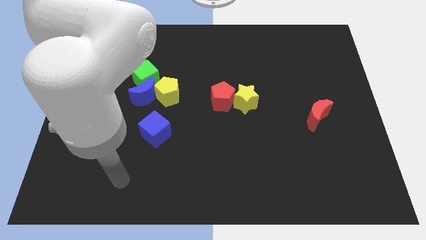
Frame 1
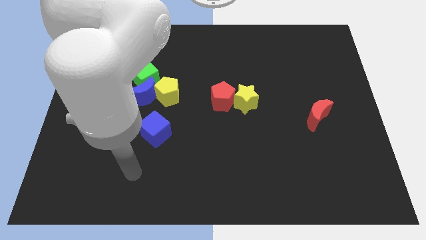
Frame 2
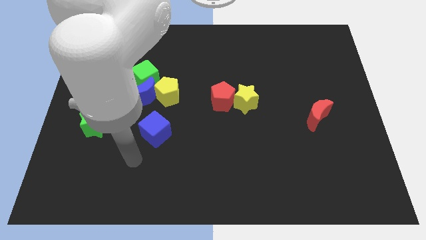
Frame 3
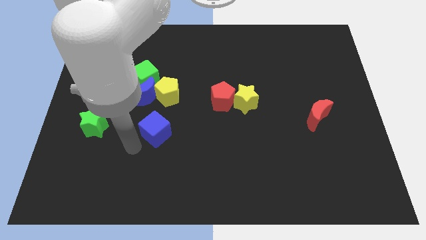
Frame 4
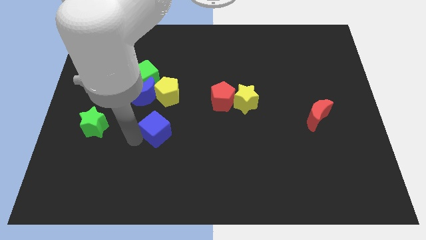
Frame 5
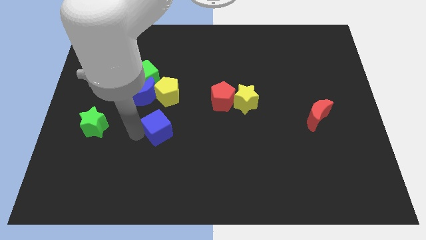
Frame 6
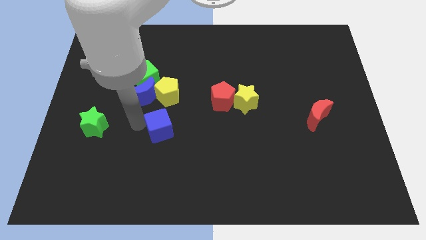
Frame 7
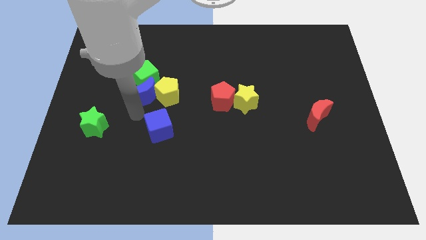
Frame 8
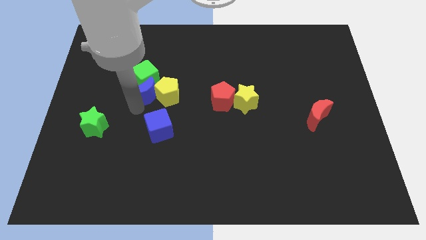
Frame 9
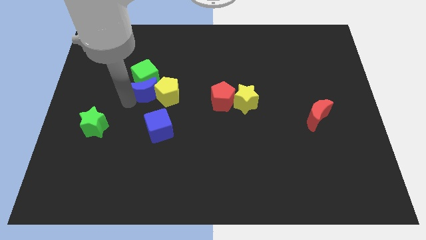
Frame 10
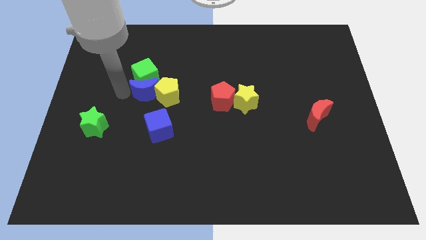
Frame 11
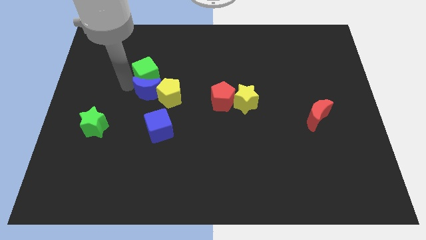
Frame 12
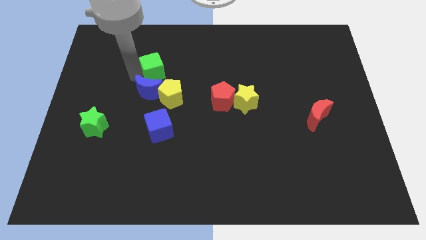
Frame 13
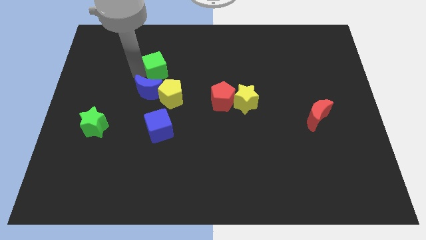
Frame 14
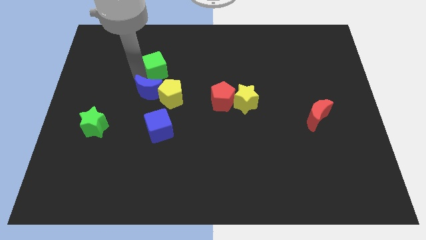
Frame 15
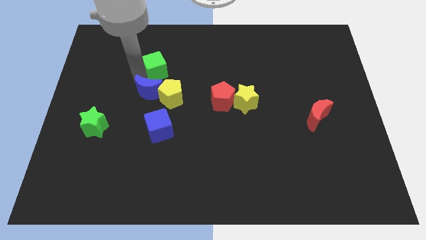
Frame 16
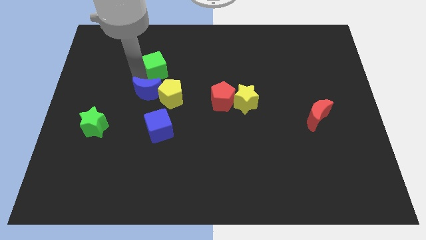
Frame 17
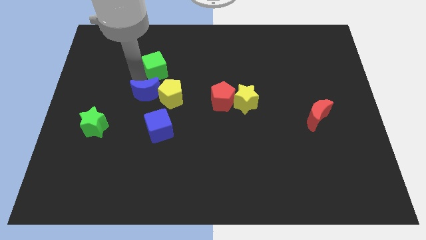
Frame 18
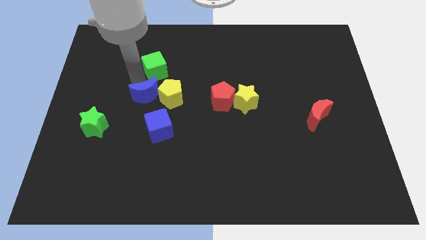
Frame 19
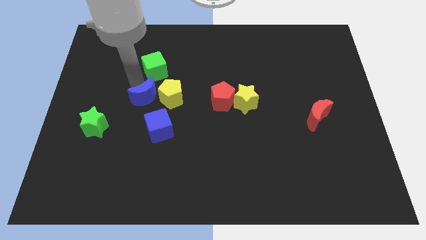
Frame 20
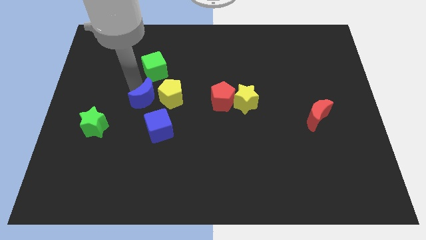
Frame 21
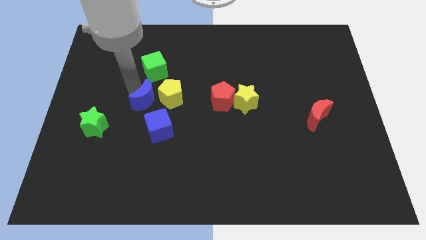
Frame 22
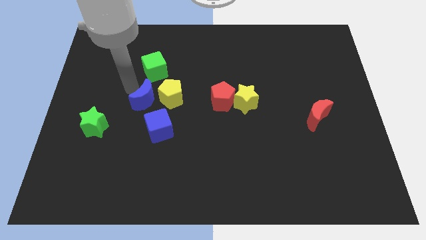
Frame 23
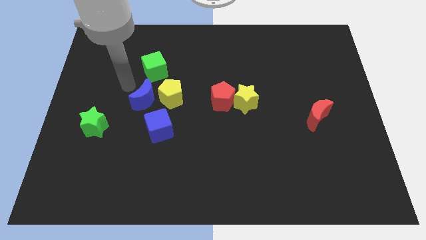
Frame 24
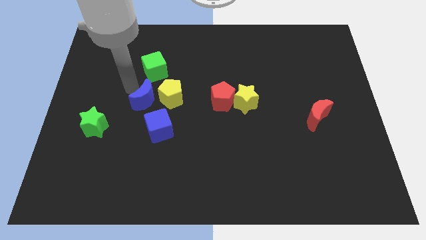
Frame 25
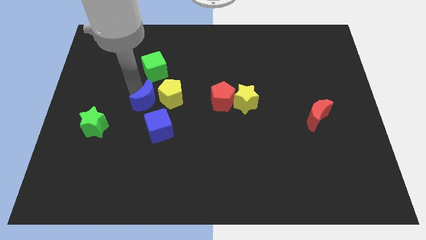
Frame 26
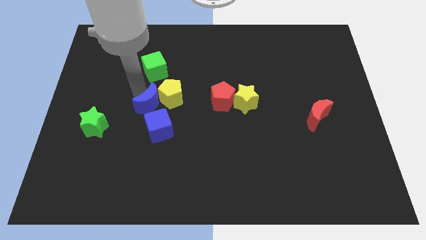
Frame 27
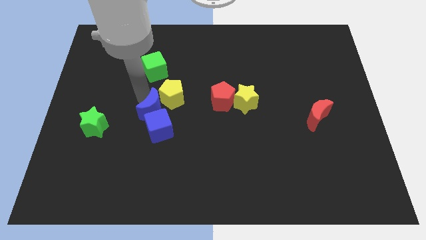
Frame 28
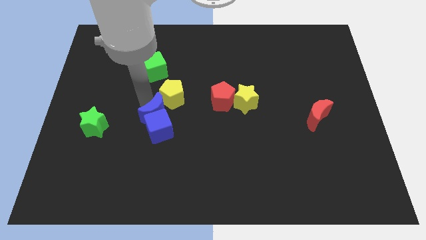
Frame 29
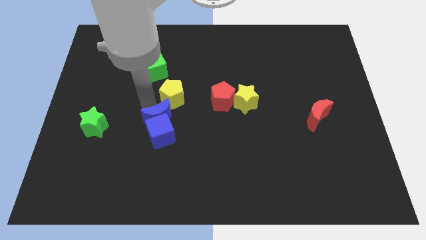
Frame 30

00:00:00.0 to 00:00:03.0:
slightly push the blue moon downwards and right diagonally

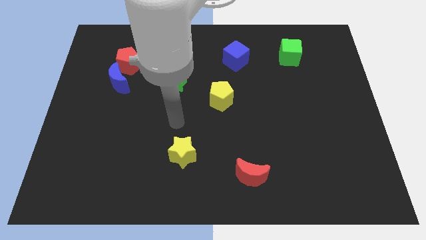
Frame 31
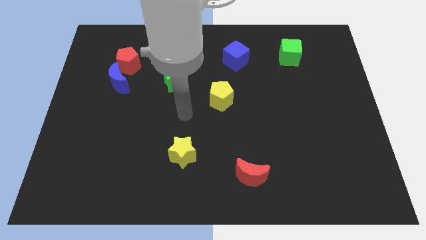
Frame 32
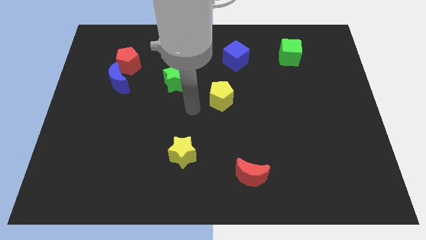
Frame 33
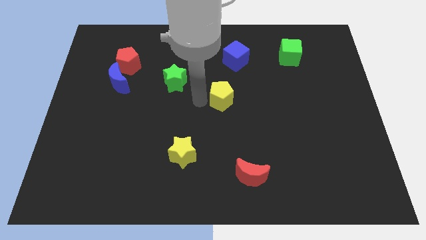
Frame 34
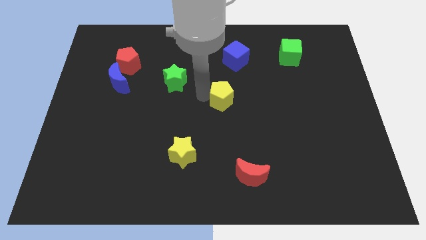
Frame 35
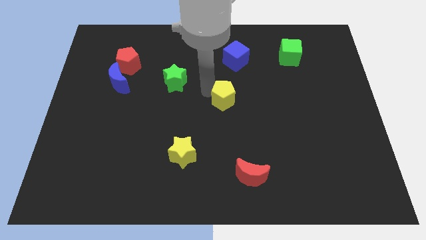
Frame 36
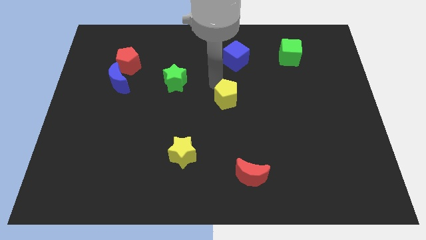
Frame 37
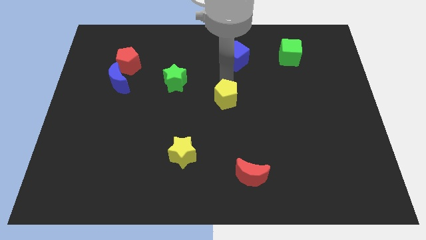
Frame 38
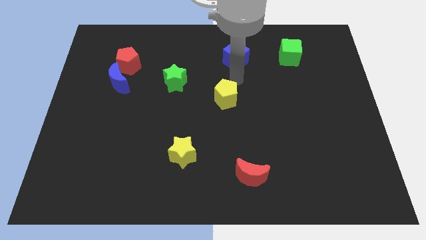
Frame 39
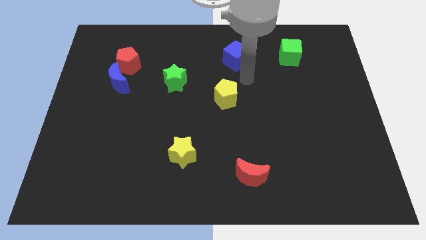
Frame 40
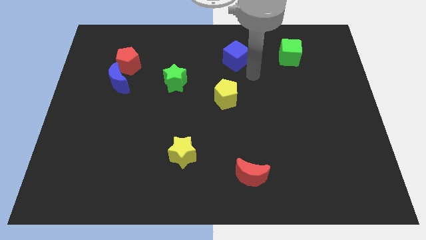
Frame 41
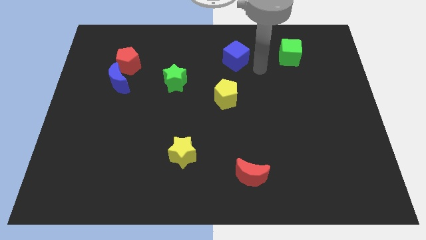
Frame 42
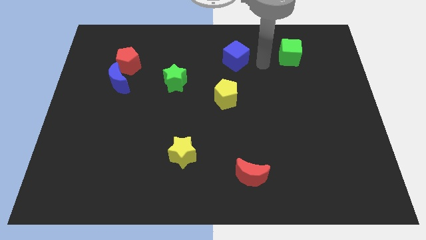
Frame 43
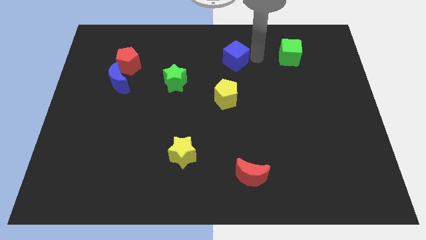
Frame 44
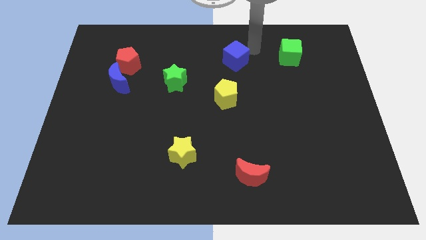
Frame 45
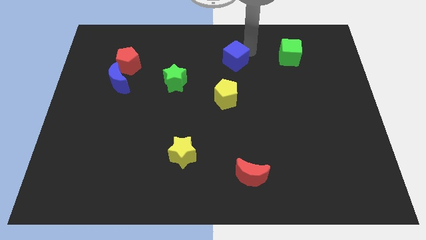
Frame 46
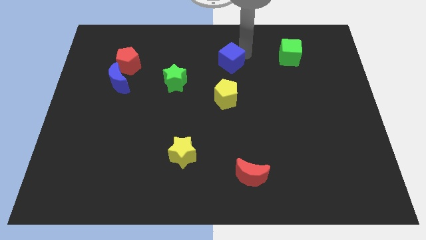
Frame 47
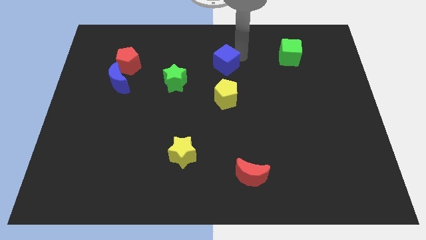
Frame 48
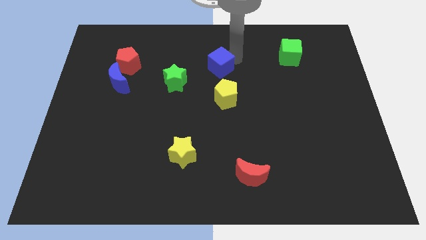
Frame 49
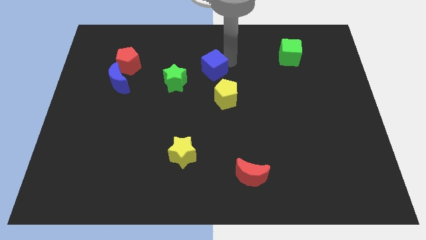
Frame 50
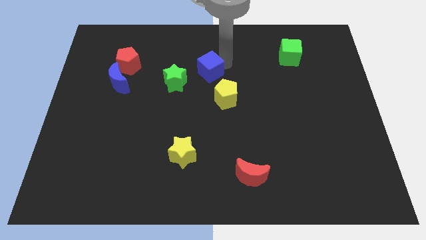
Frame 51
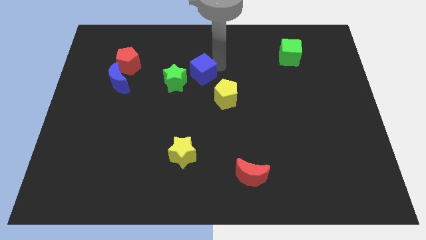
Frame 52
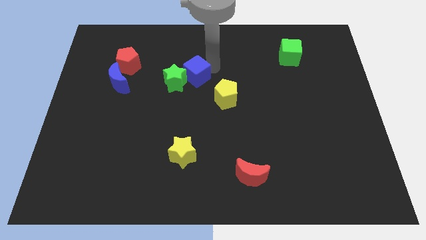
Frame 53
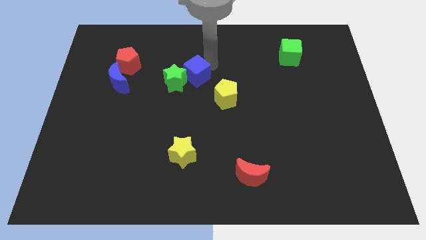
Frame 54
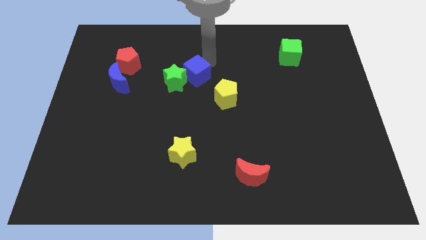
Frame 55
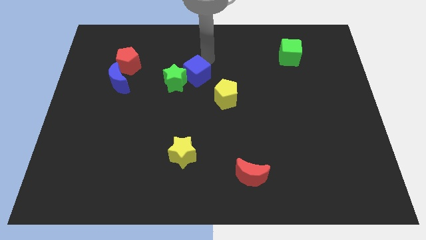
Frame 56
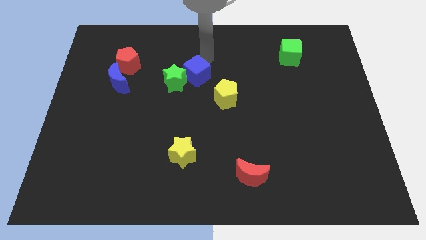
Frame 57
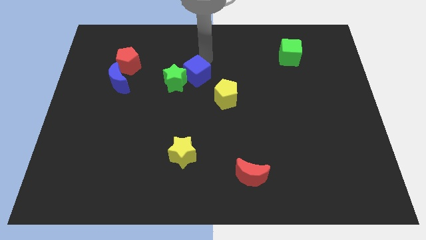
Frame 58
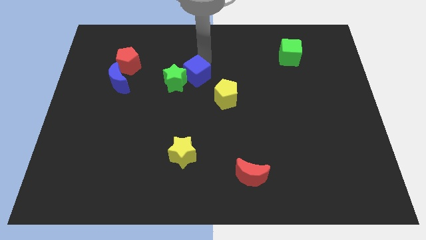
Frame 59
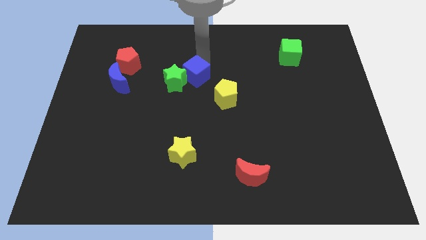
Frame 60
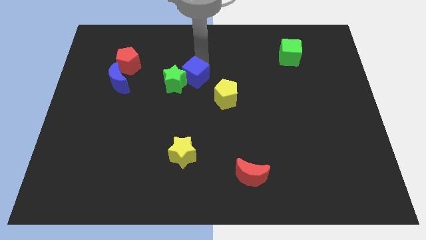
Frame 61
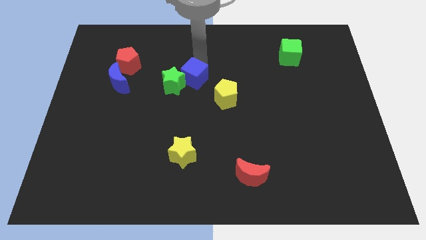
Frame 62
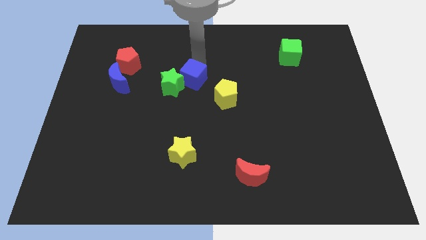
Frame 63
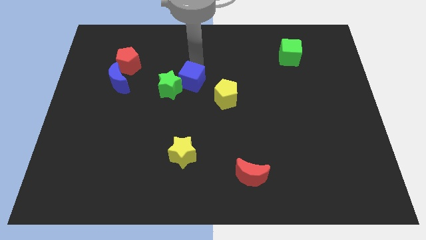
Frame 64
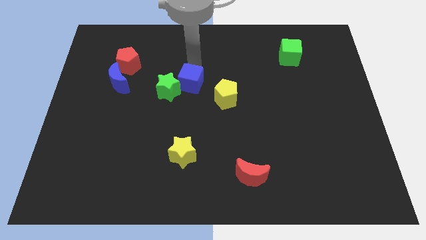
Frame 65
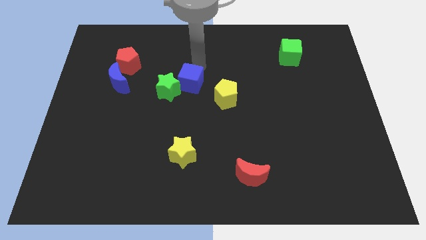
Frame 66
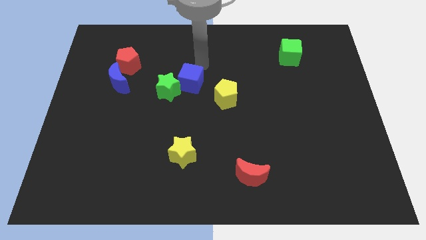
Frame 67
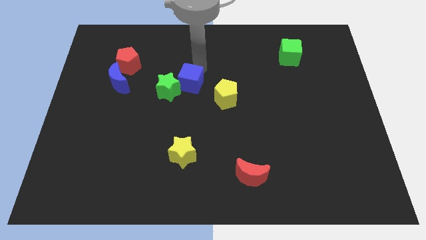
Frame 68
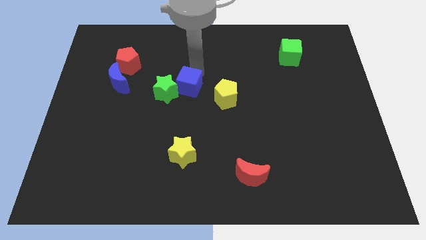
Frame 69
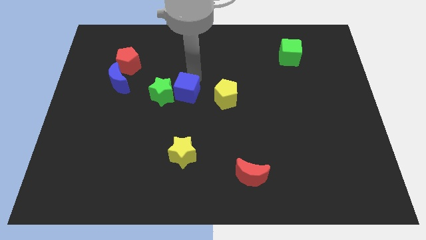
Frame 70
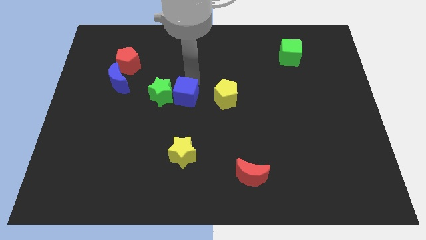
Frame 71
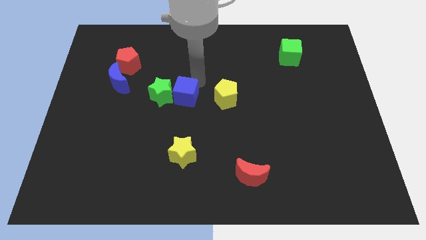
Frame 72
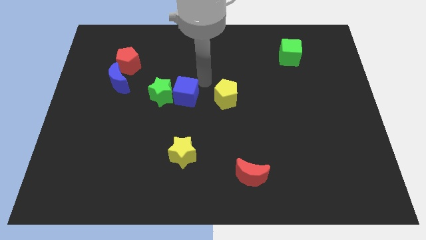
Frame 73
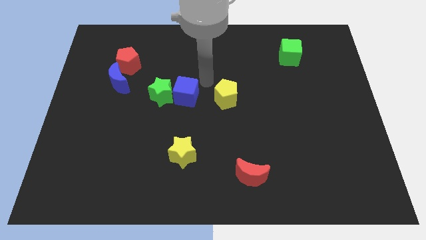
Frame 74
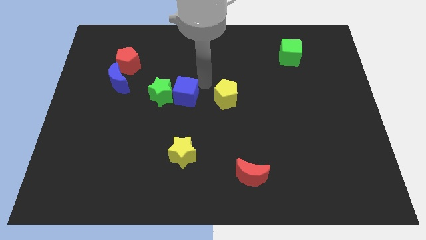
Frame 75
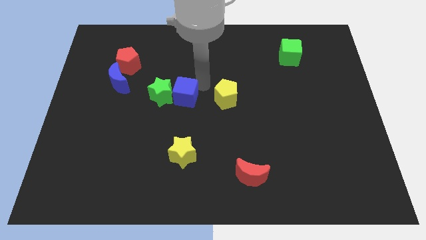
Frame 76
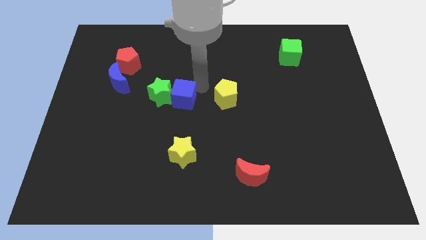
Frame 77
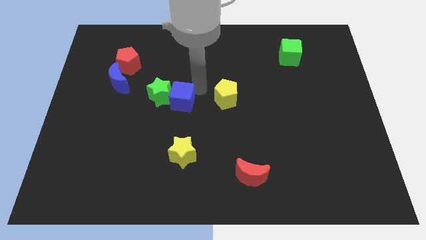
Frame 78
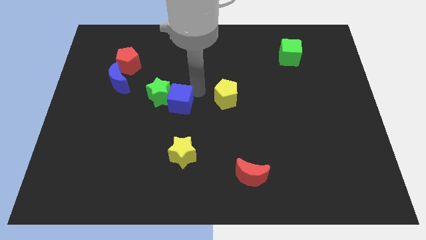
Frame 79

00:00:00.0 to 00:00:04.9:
slide the blue cube downwards and to the left

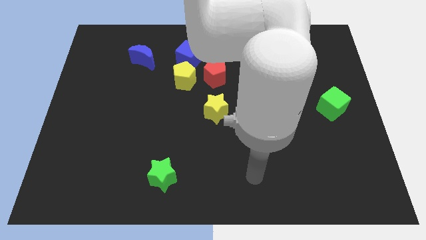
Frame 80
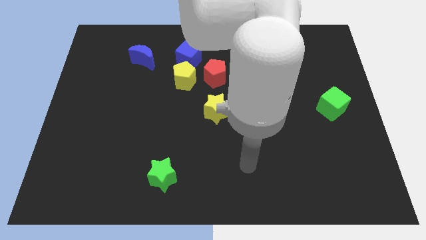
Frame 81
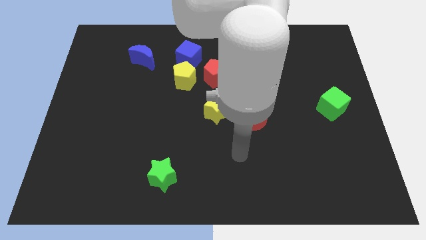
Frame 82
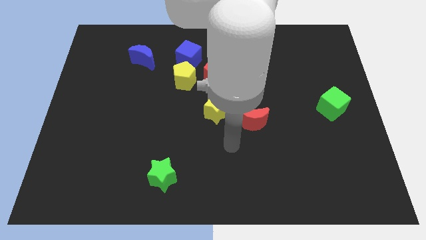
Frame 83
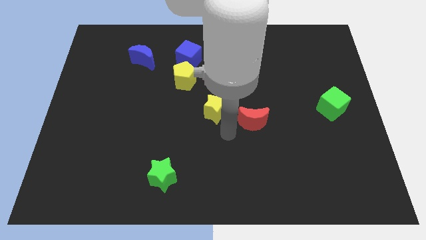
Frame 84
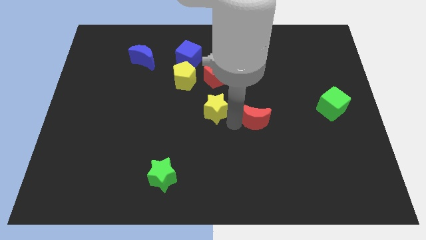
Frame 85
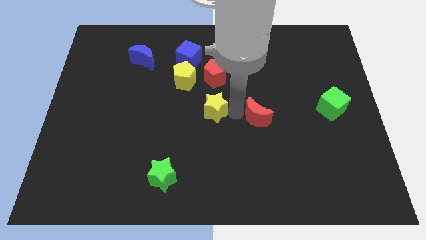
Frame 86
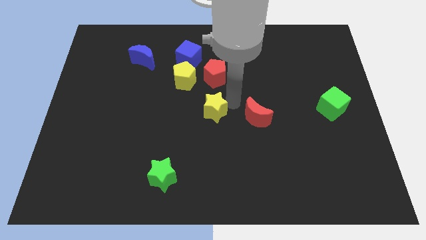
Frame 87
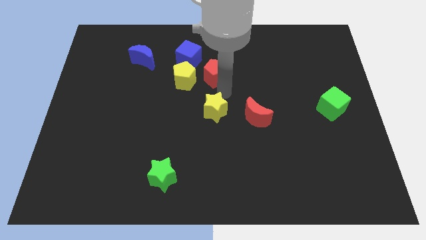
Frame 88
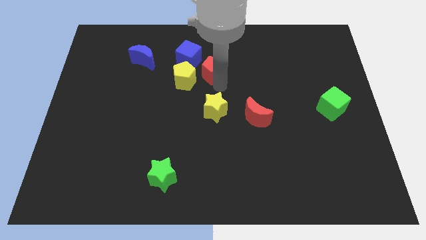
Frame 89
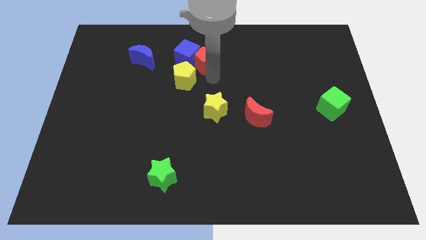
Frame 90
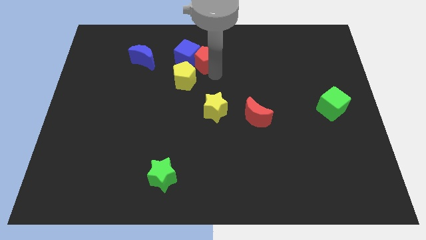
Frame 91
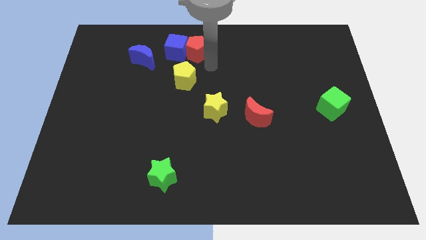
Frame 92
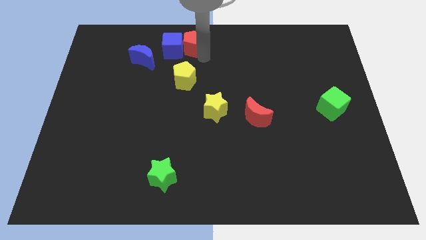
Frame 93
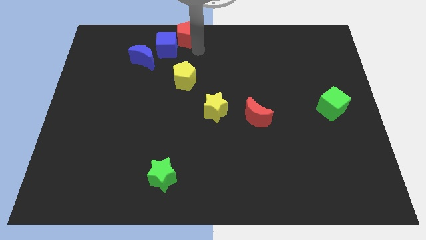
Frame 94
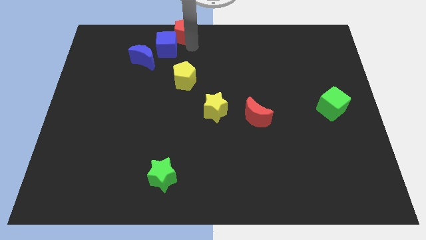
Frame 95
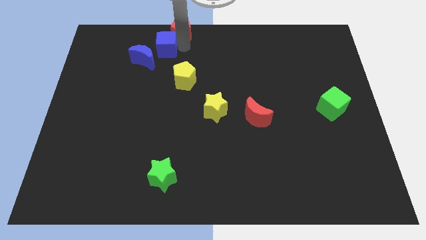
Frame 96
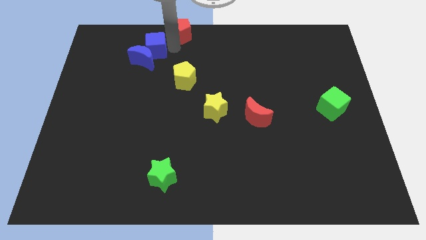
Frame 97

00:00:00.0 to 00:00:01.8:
push the blue cube a little left
